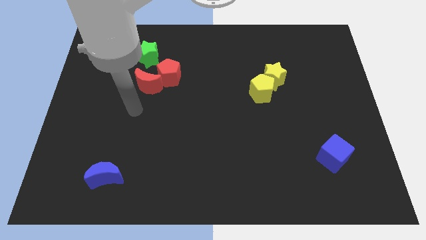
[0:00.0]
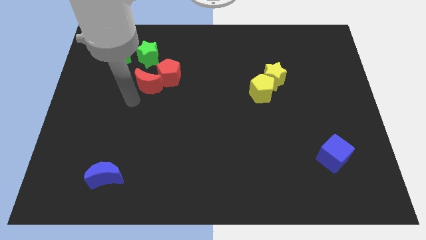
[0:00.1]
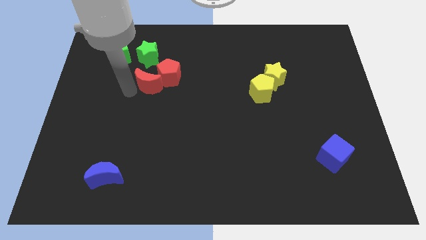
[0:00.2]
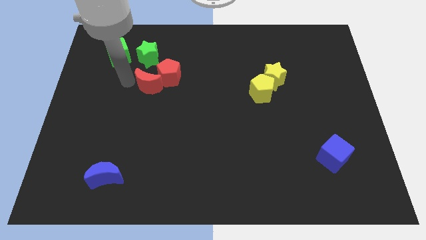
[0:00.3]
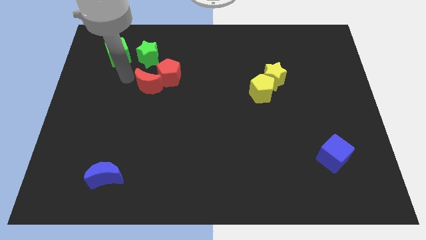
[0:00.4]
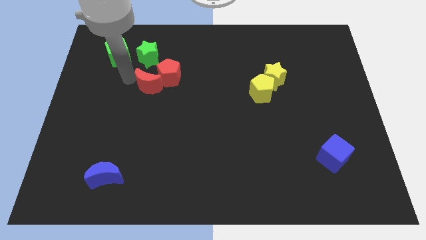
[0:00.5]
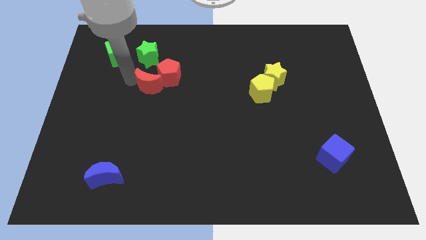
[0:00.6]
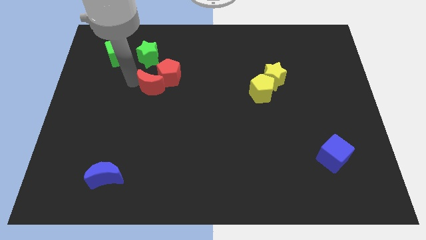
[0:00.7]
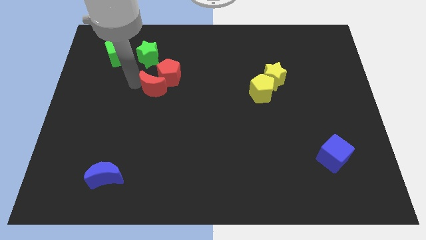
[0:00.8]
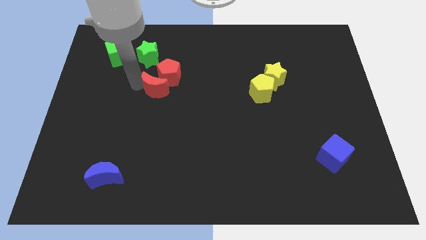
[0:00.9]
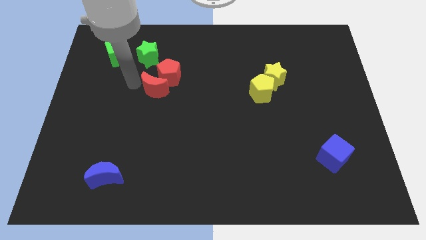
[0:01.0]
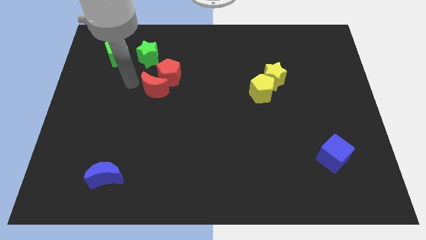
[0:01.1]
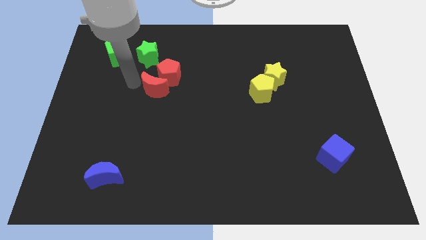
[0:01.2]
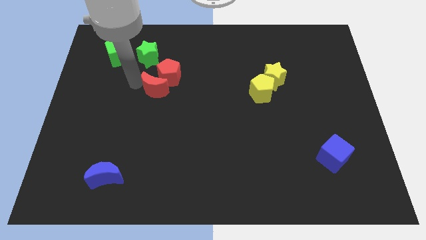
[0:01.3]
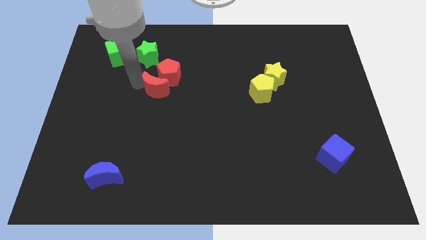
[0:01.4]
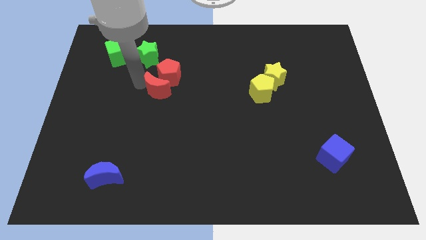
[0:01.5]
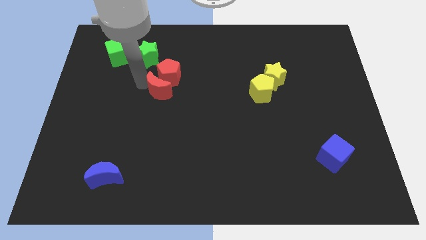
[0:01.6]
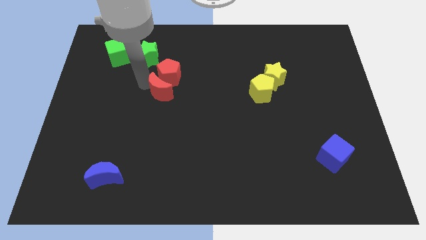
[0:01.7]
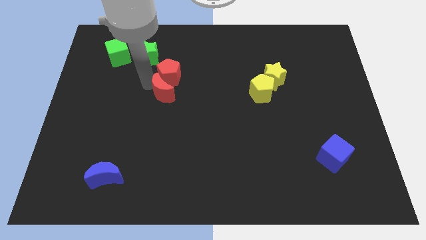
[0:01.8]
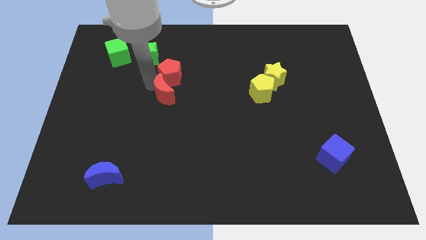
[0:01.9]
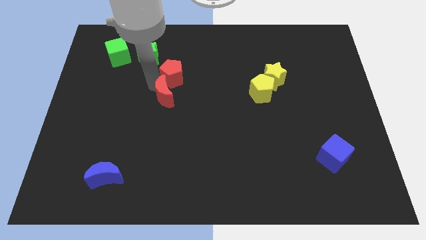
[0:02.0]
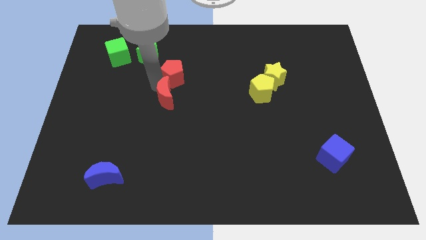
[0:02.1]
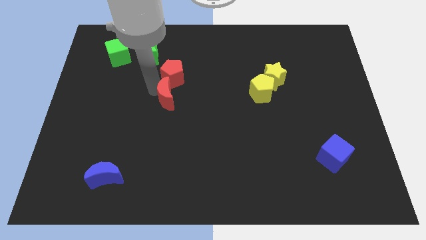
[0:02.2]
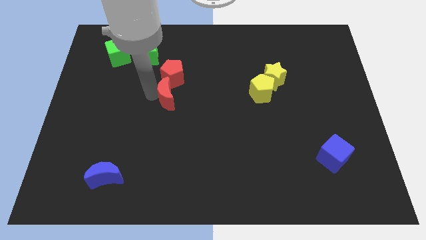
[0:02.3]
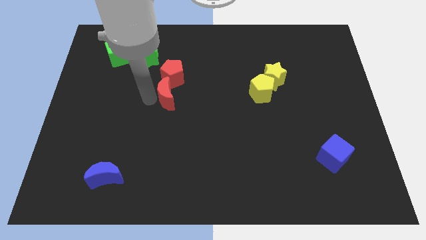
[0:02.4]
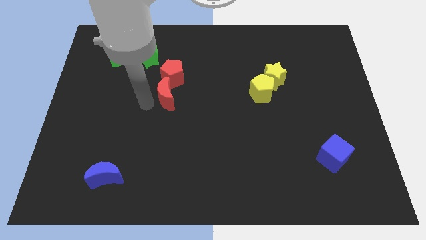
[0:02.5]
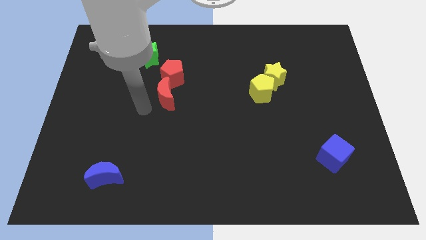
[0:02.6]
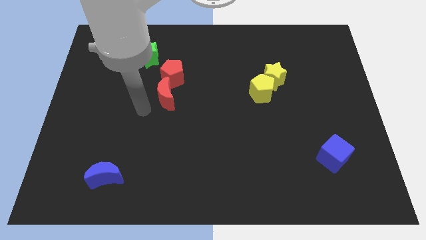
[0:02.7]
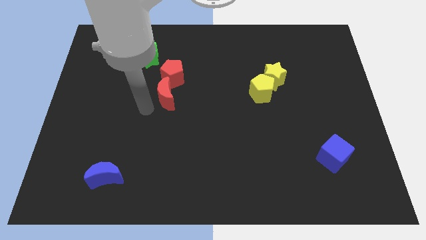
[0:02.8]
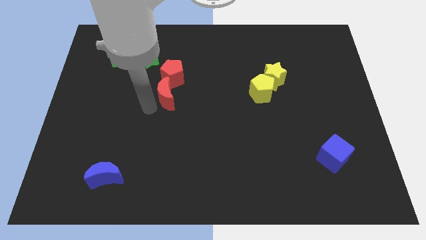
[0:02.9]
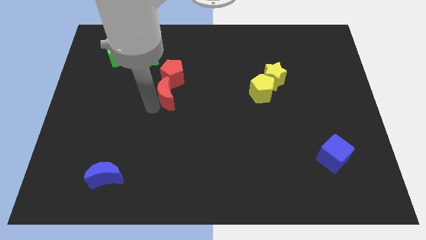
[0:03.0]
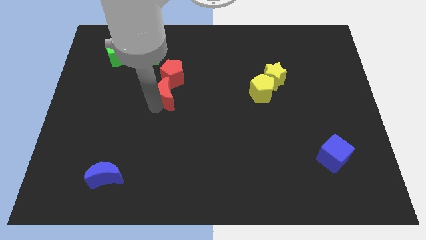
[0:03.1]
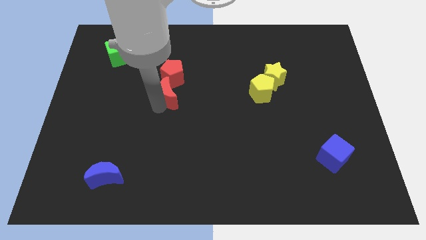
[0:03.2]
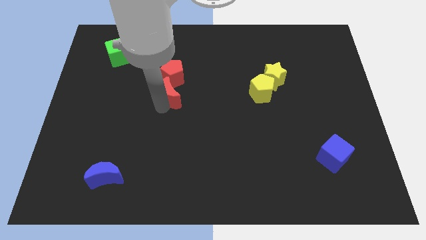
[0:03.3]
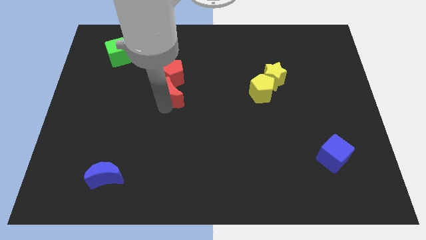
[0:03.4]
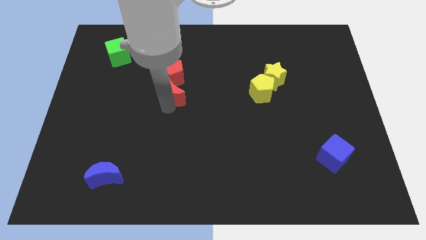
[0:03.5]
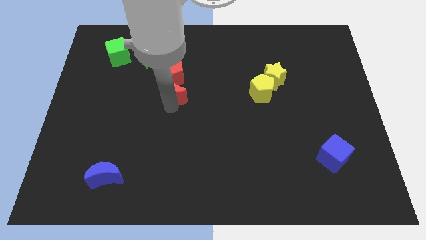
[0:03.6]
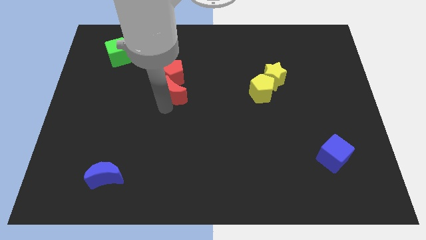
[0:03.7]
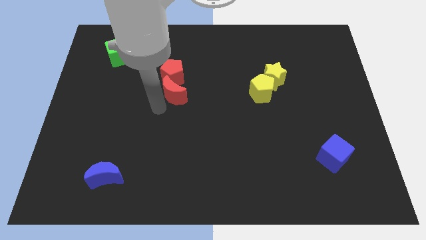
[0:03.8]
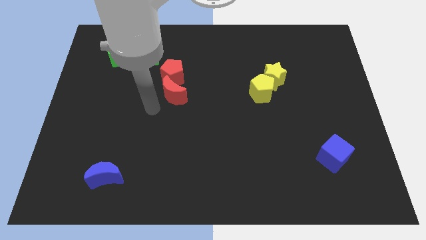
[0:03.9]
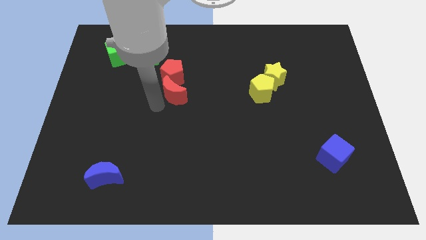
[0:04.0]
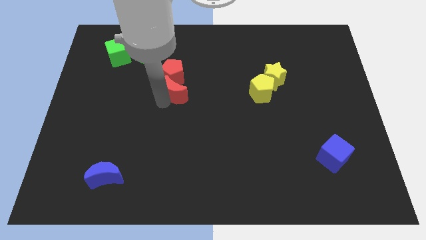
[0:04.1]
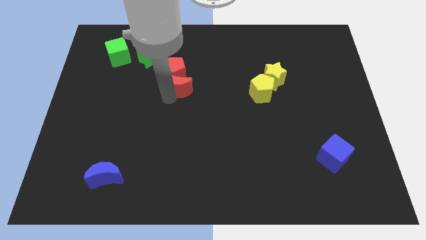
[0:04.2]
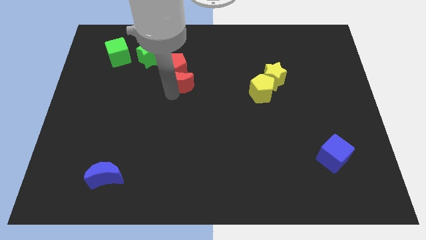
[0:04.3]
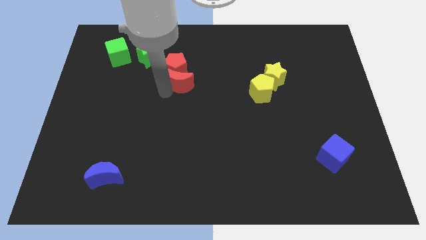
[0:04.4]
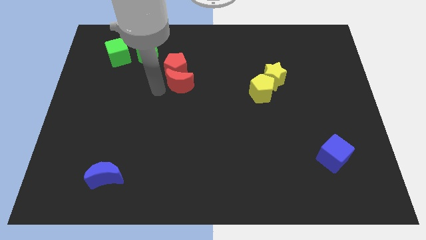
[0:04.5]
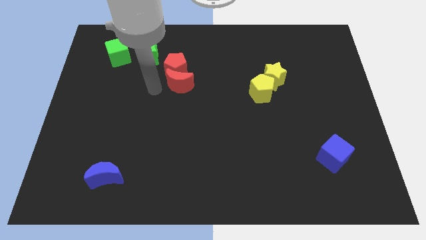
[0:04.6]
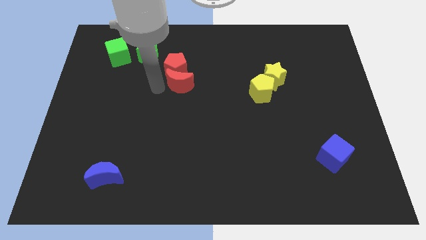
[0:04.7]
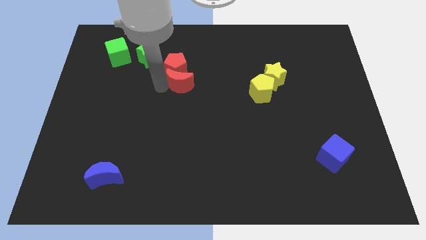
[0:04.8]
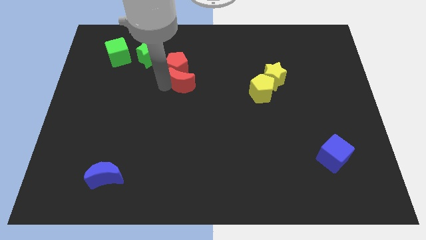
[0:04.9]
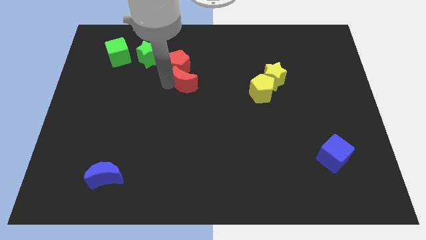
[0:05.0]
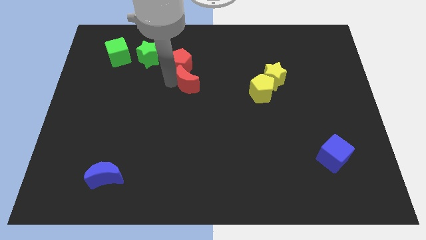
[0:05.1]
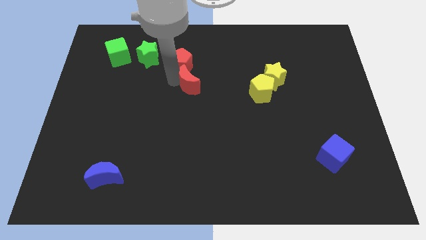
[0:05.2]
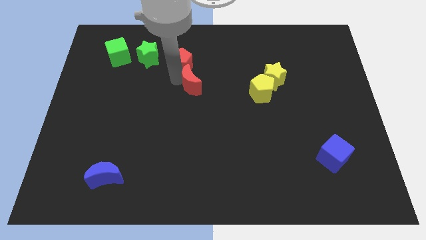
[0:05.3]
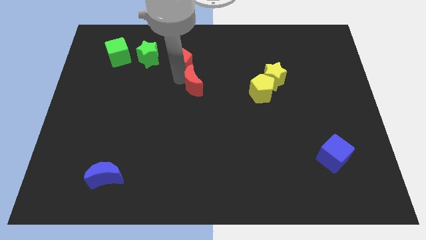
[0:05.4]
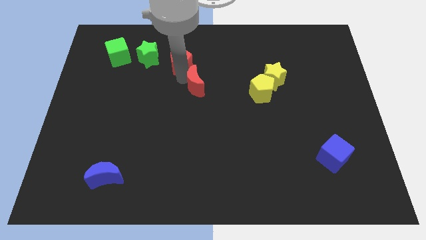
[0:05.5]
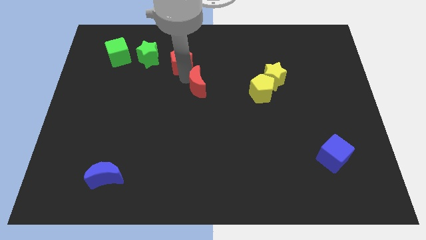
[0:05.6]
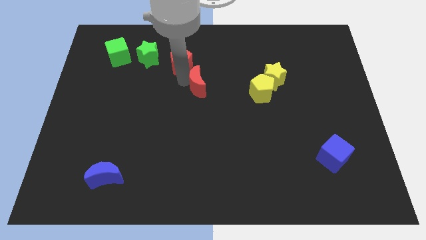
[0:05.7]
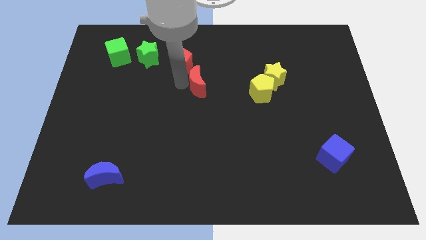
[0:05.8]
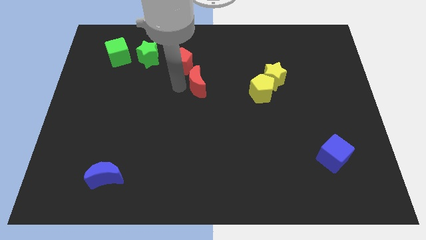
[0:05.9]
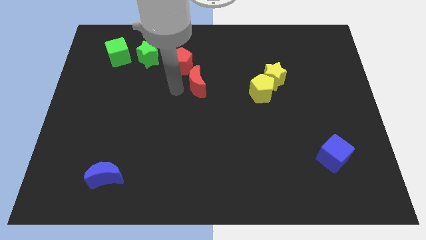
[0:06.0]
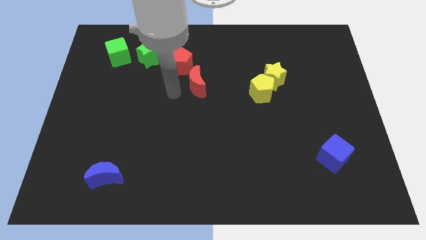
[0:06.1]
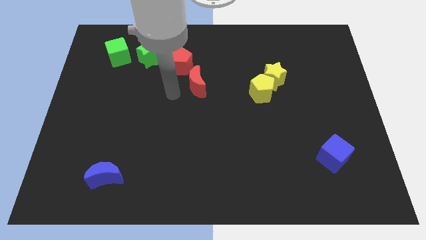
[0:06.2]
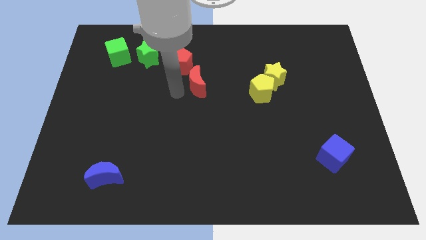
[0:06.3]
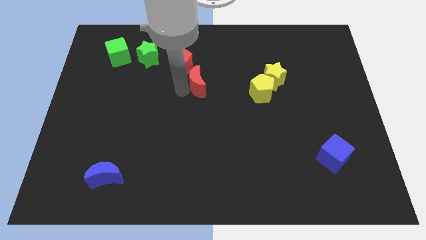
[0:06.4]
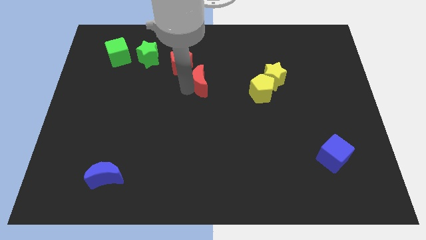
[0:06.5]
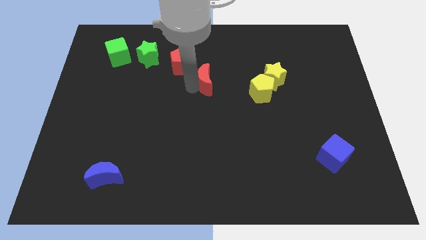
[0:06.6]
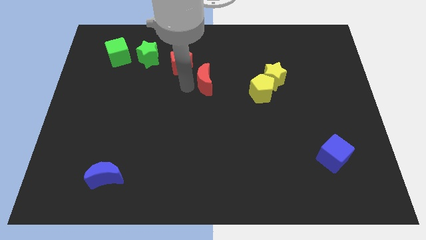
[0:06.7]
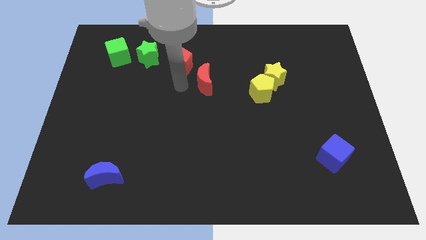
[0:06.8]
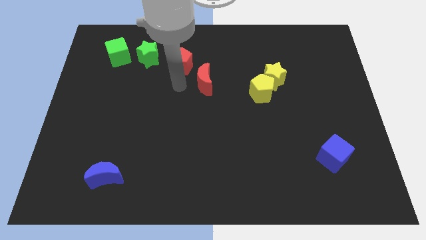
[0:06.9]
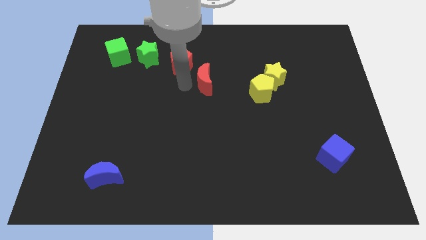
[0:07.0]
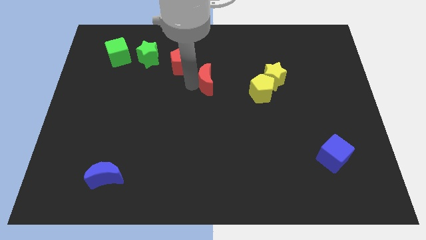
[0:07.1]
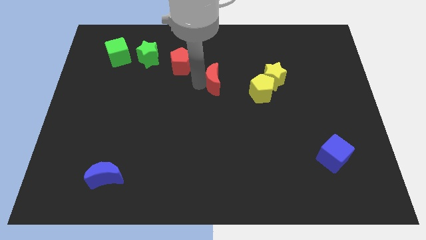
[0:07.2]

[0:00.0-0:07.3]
put the red moon to the left side of the yellow star

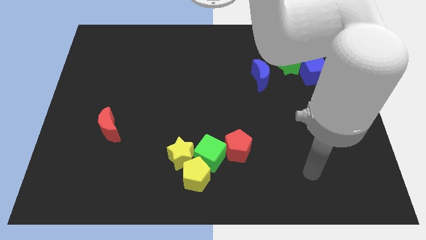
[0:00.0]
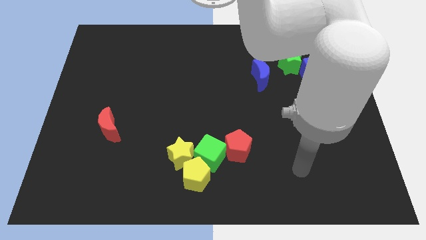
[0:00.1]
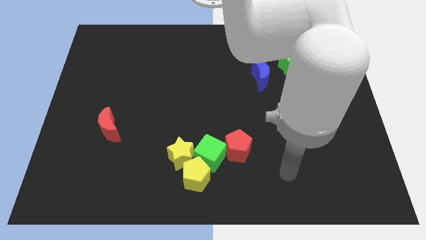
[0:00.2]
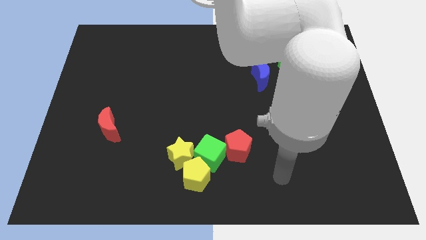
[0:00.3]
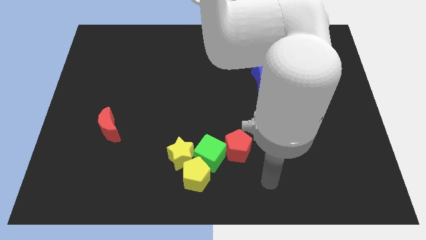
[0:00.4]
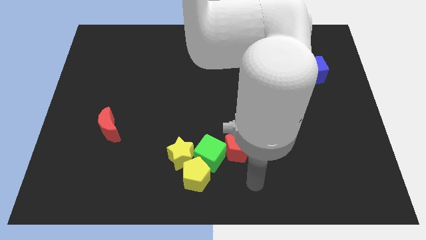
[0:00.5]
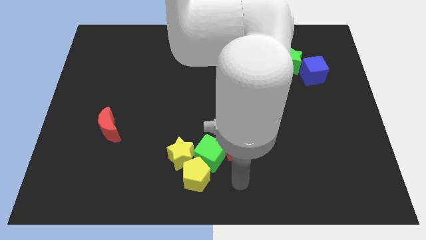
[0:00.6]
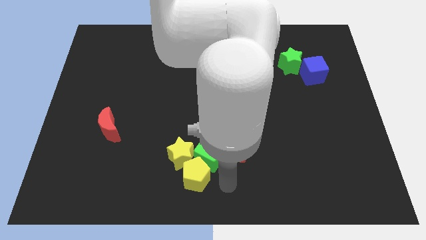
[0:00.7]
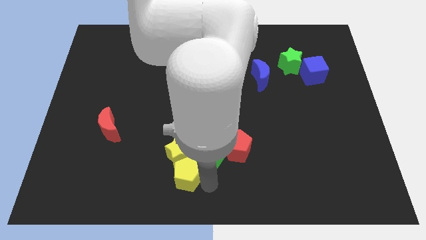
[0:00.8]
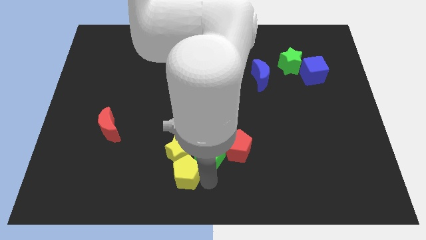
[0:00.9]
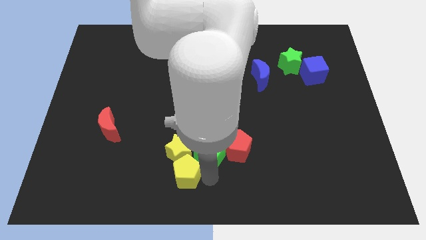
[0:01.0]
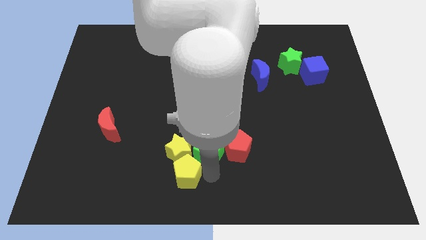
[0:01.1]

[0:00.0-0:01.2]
move the green cube to the top left side of the red pentagon
